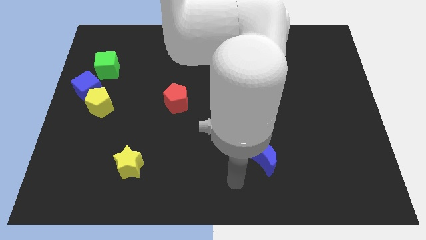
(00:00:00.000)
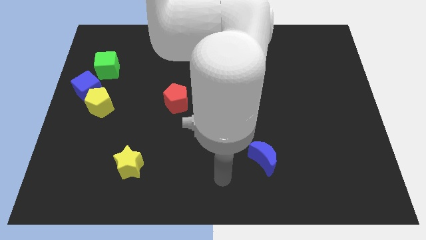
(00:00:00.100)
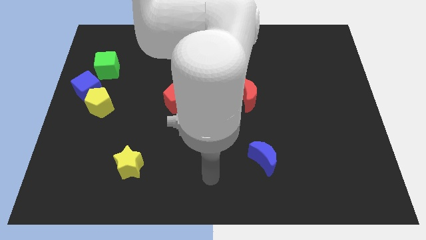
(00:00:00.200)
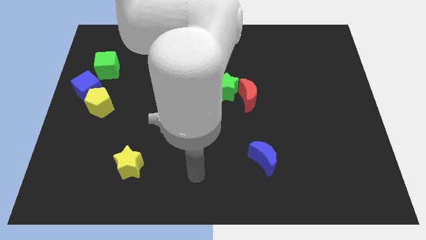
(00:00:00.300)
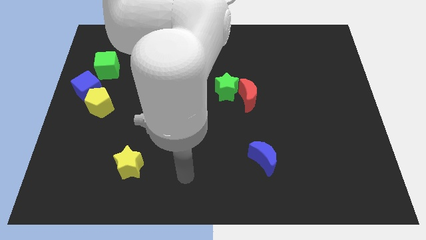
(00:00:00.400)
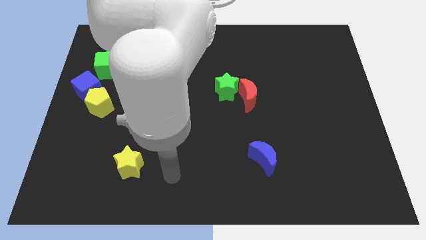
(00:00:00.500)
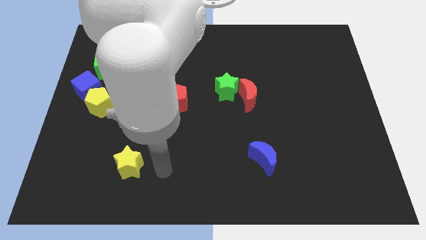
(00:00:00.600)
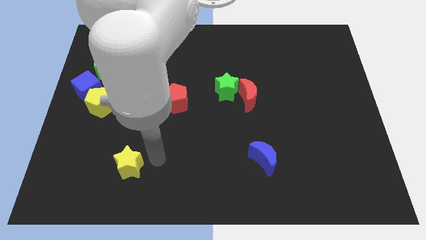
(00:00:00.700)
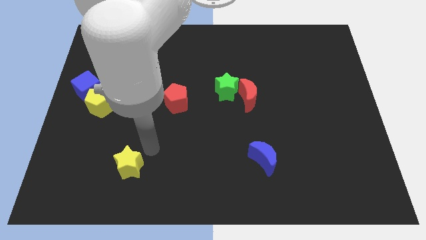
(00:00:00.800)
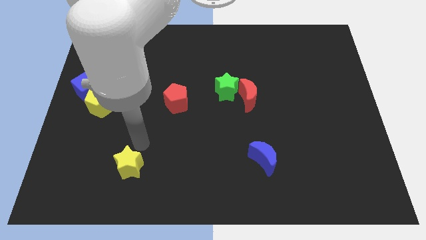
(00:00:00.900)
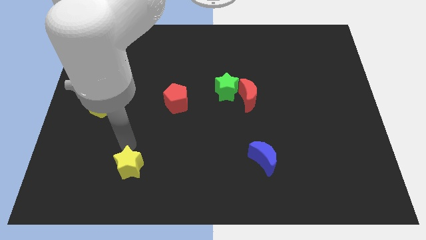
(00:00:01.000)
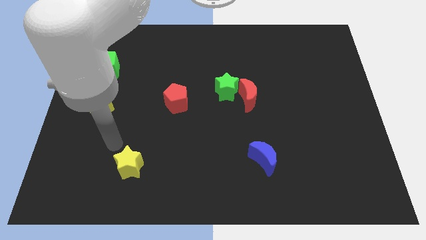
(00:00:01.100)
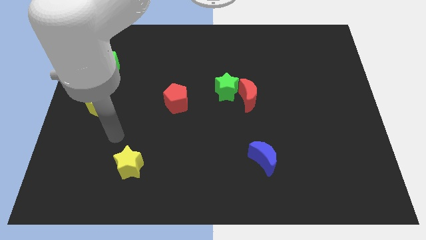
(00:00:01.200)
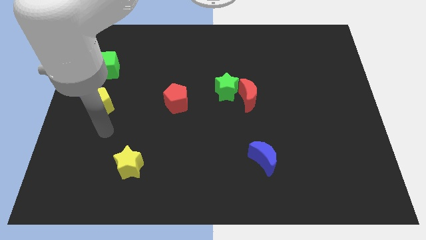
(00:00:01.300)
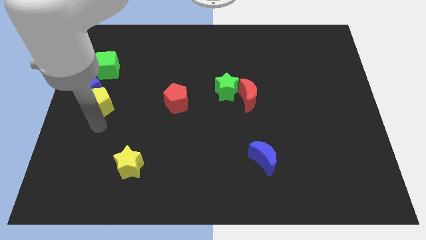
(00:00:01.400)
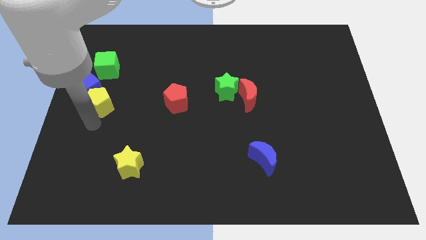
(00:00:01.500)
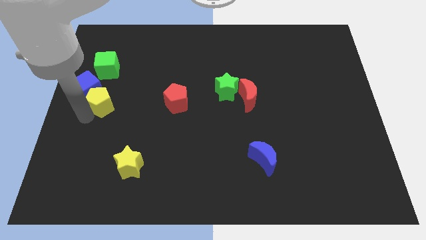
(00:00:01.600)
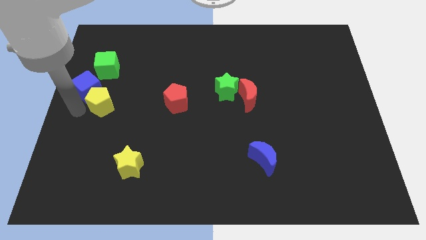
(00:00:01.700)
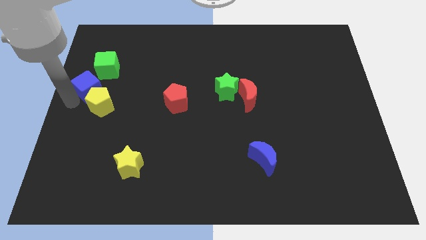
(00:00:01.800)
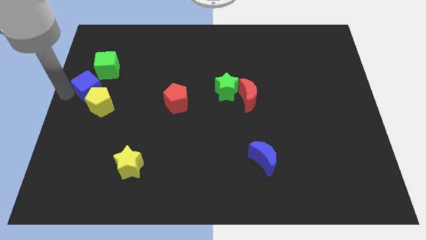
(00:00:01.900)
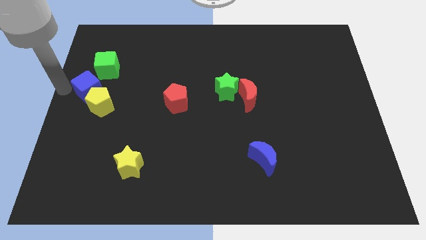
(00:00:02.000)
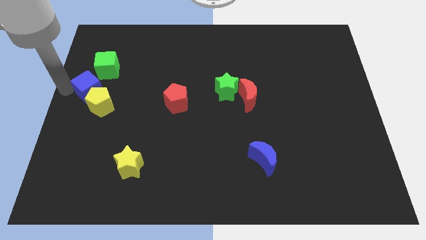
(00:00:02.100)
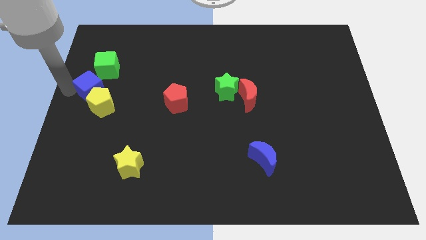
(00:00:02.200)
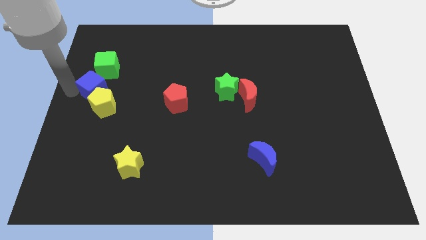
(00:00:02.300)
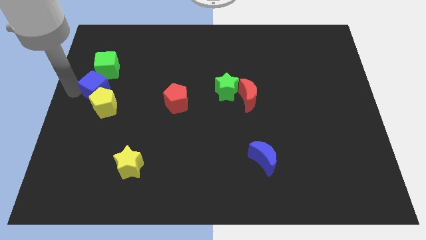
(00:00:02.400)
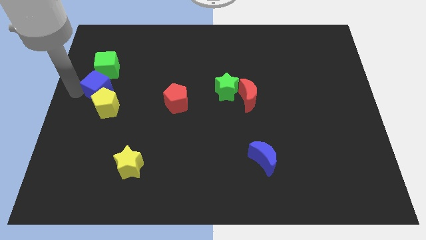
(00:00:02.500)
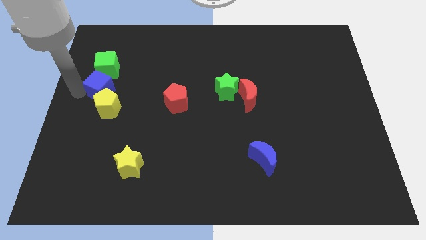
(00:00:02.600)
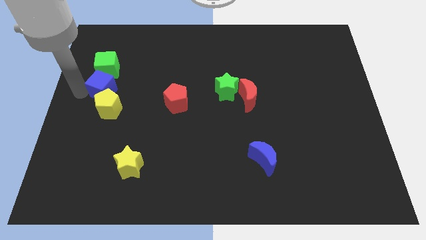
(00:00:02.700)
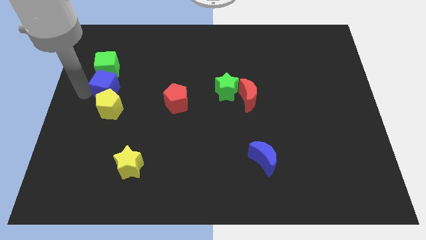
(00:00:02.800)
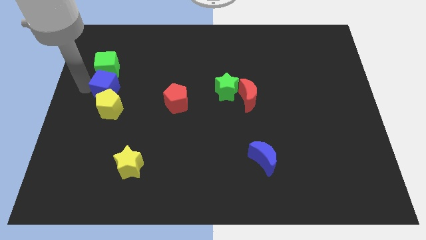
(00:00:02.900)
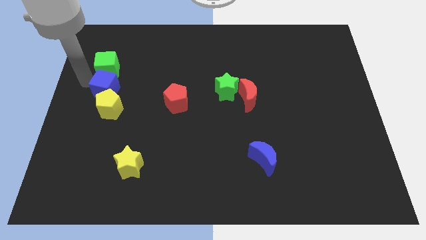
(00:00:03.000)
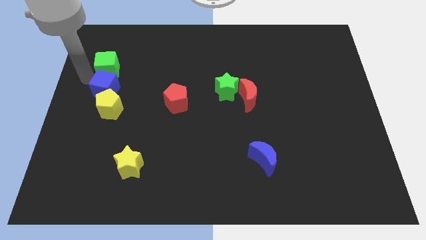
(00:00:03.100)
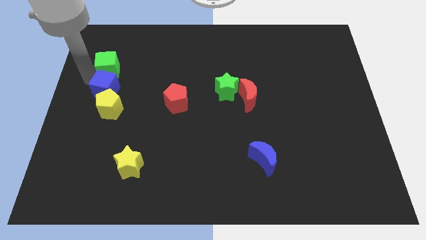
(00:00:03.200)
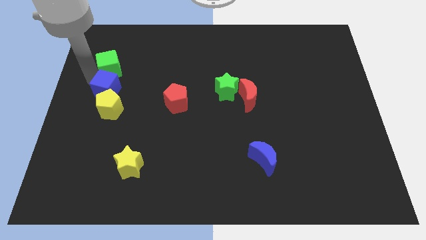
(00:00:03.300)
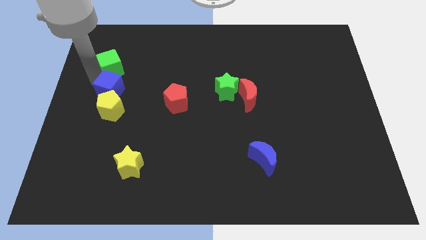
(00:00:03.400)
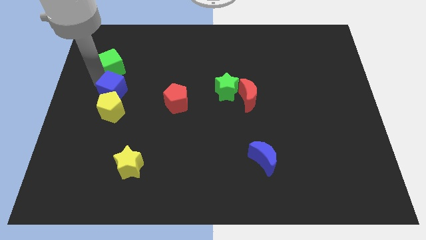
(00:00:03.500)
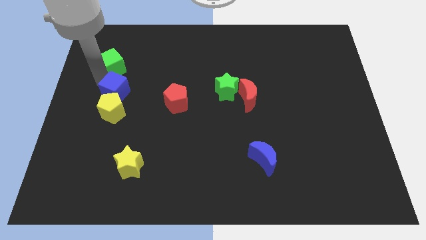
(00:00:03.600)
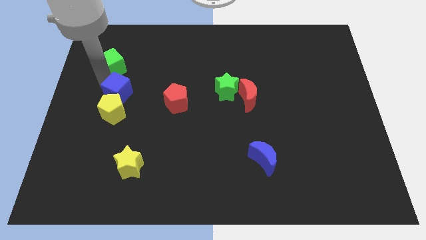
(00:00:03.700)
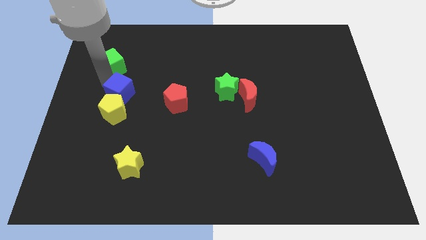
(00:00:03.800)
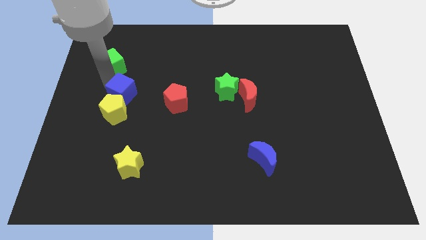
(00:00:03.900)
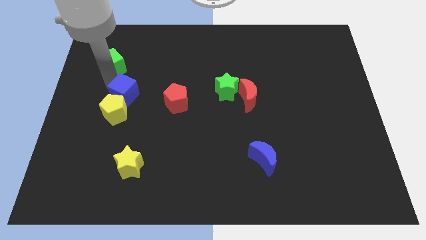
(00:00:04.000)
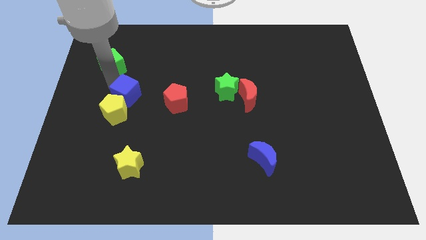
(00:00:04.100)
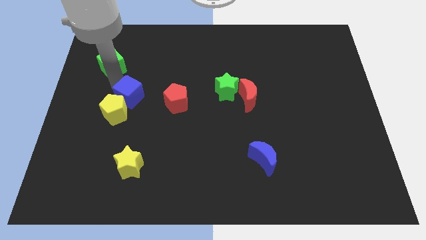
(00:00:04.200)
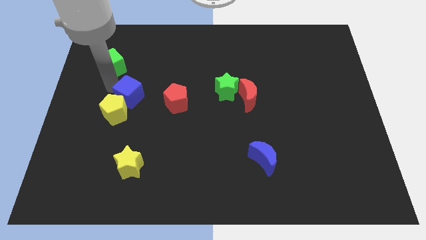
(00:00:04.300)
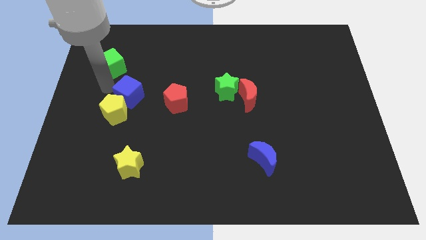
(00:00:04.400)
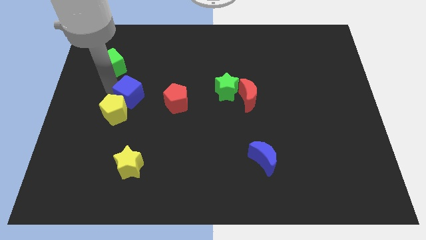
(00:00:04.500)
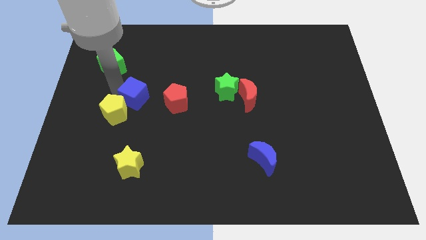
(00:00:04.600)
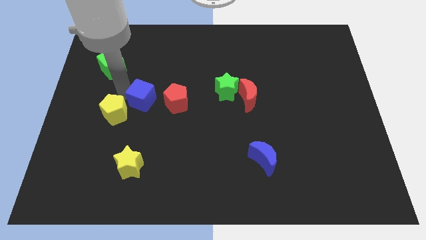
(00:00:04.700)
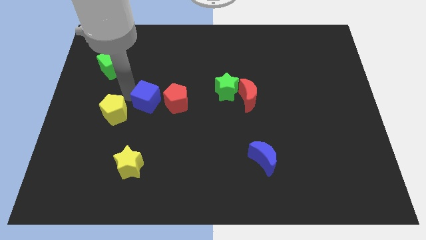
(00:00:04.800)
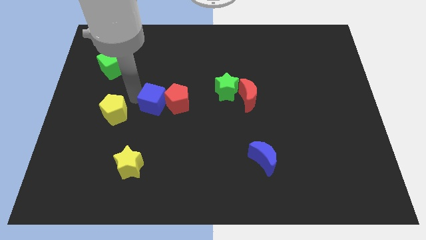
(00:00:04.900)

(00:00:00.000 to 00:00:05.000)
push the blue cube to the red pentagon

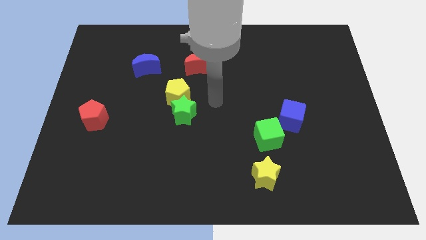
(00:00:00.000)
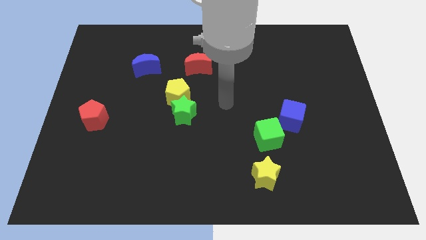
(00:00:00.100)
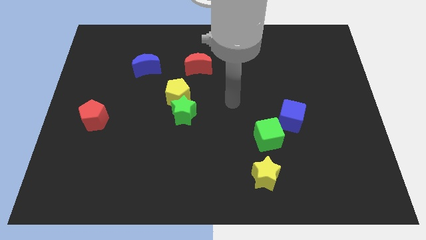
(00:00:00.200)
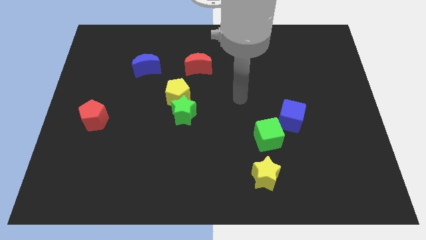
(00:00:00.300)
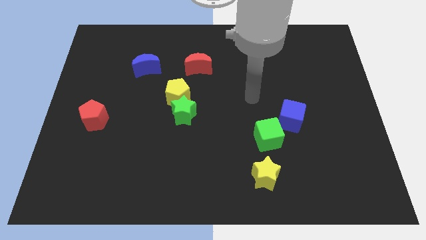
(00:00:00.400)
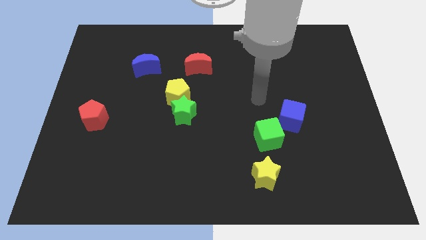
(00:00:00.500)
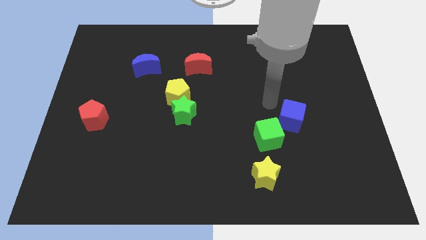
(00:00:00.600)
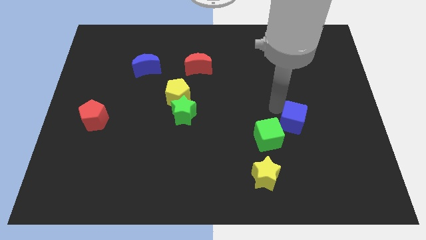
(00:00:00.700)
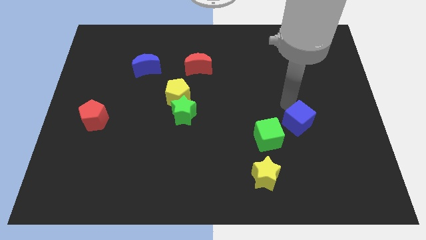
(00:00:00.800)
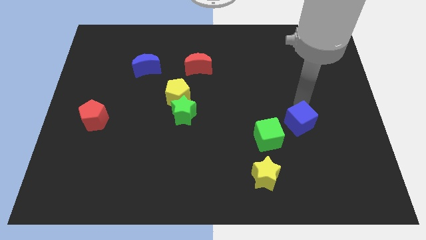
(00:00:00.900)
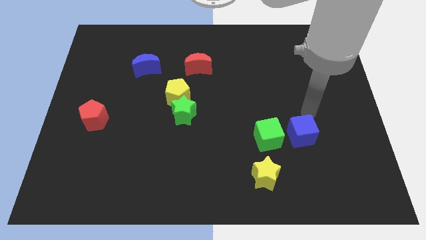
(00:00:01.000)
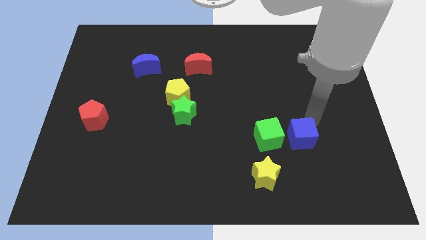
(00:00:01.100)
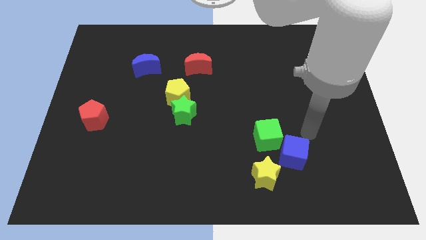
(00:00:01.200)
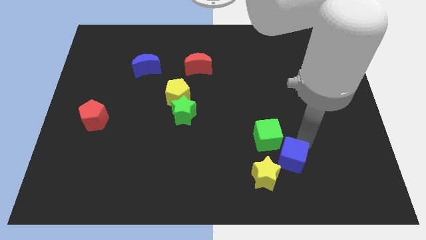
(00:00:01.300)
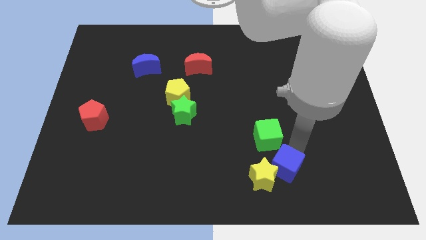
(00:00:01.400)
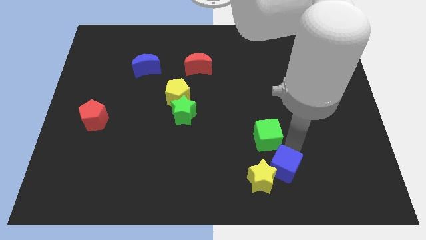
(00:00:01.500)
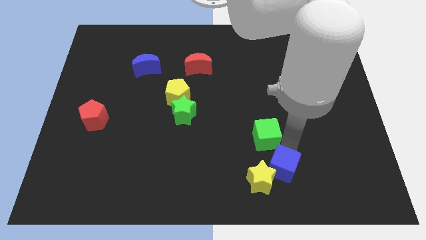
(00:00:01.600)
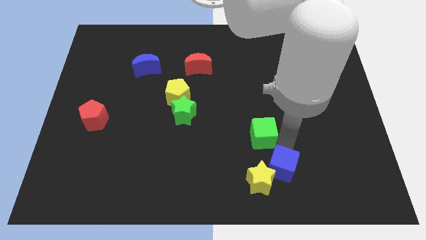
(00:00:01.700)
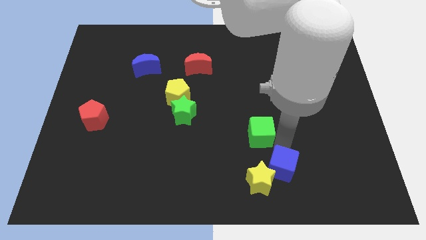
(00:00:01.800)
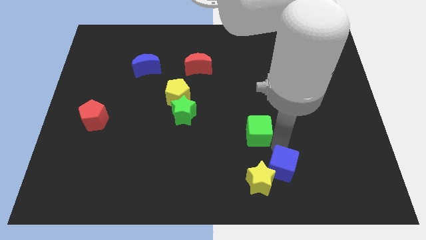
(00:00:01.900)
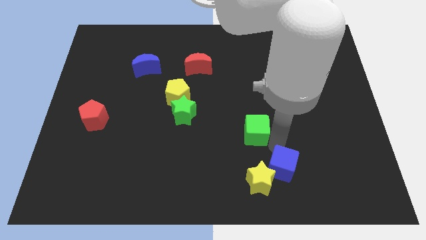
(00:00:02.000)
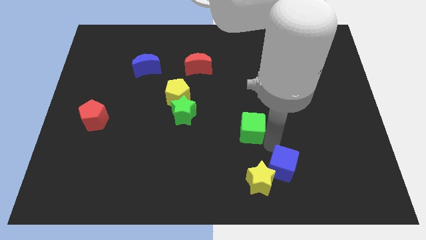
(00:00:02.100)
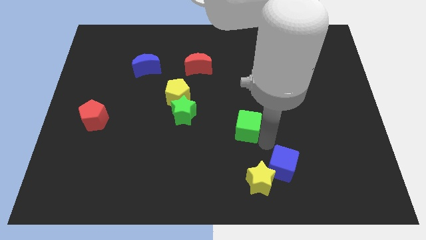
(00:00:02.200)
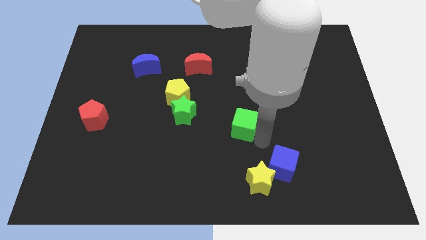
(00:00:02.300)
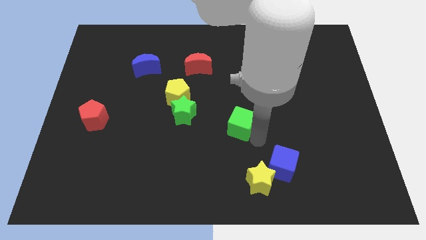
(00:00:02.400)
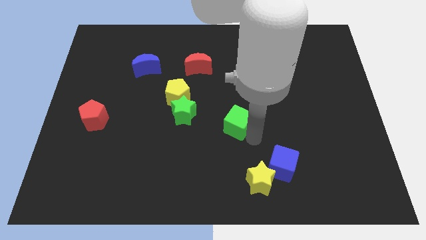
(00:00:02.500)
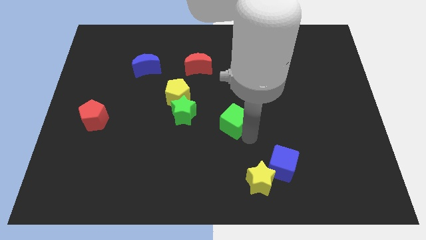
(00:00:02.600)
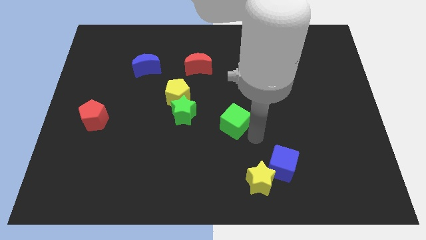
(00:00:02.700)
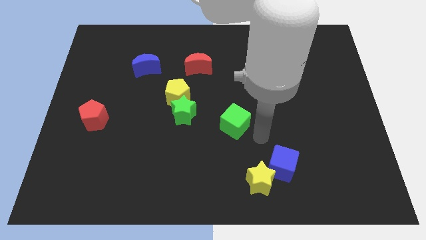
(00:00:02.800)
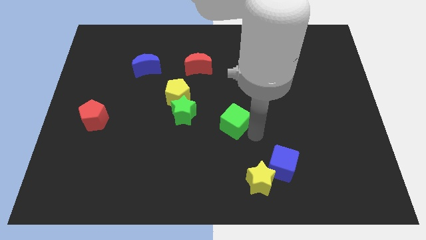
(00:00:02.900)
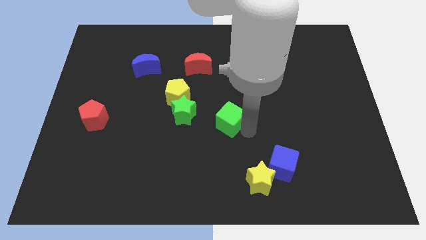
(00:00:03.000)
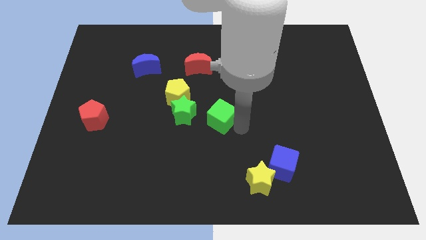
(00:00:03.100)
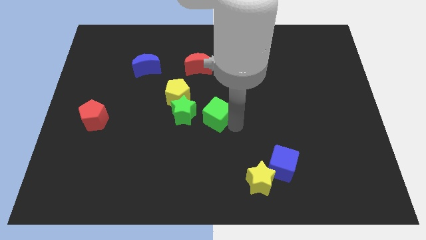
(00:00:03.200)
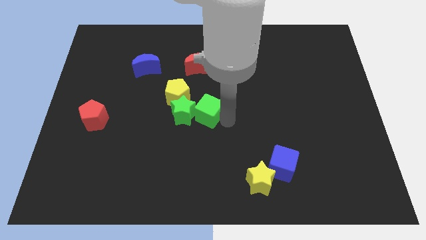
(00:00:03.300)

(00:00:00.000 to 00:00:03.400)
push the green cube towards the green star
